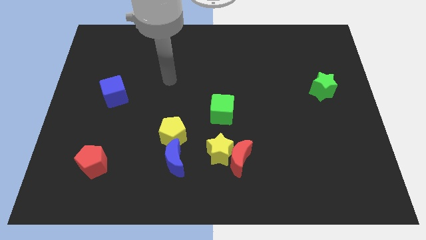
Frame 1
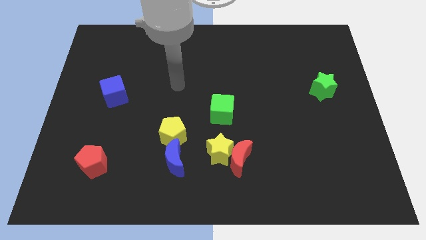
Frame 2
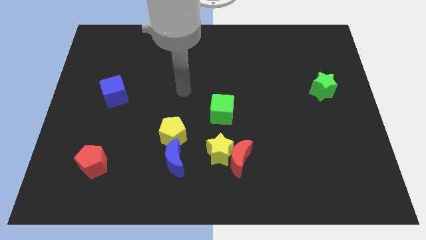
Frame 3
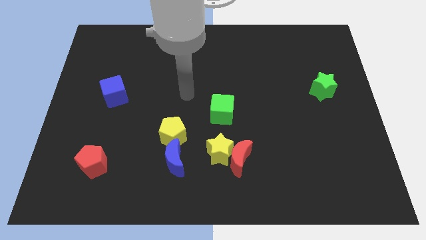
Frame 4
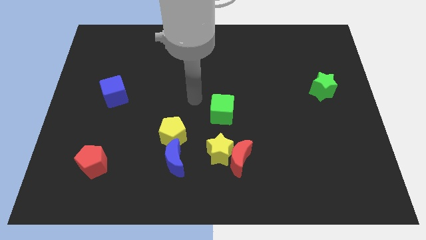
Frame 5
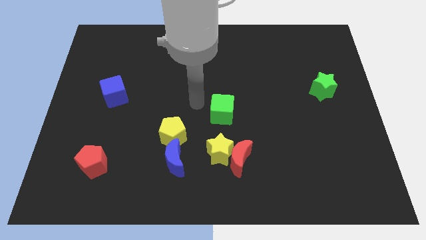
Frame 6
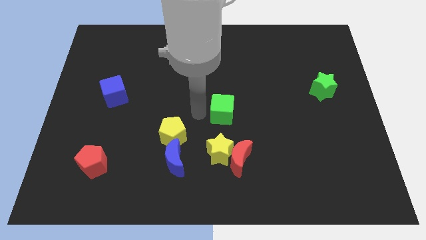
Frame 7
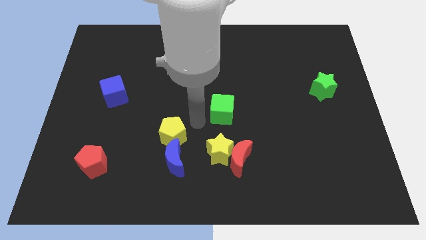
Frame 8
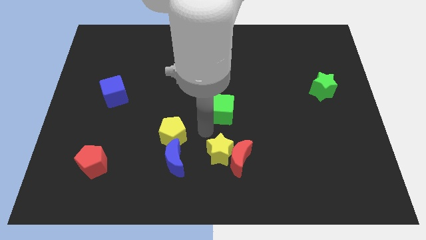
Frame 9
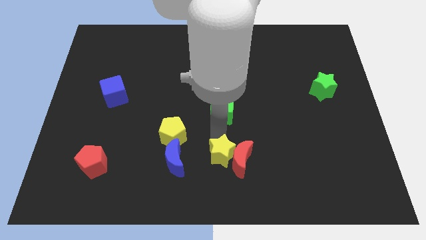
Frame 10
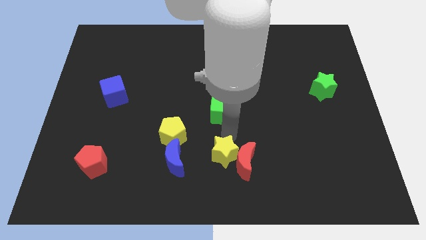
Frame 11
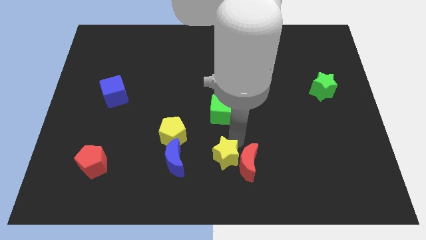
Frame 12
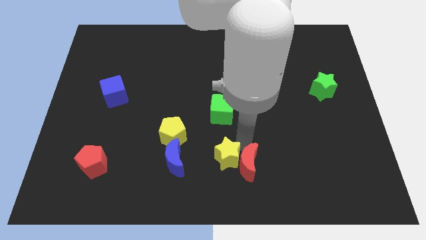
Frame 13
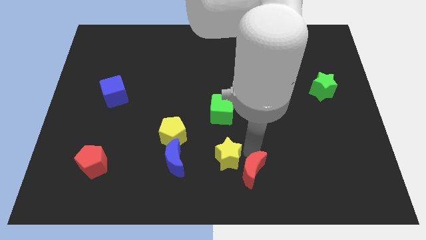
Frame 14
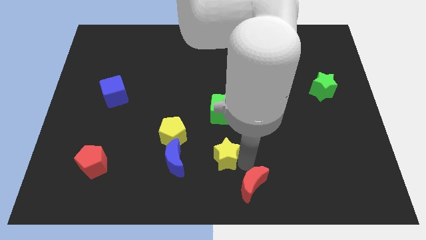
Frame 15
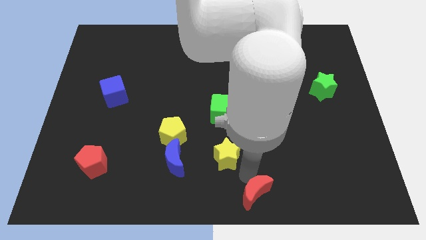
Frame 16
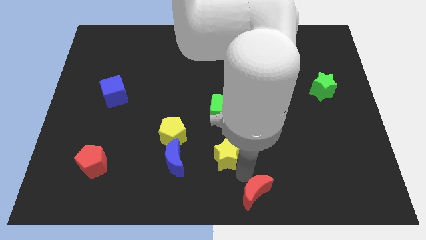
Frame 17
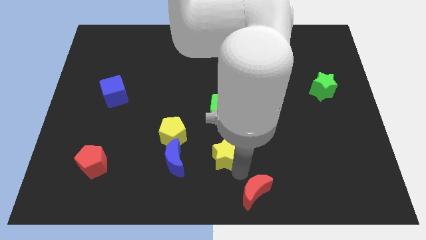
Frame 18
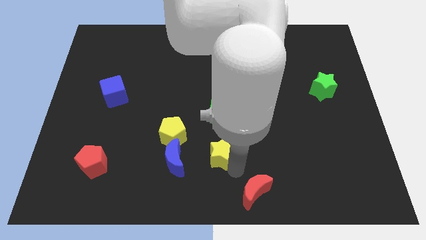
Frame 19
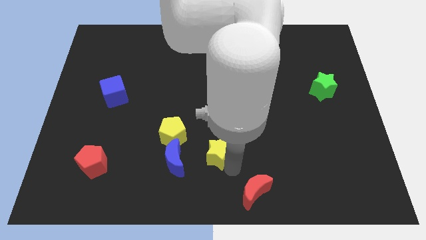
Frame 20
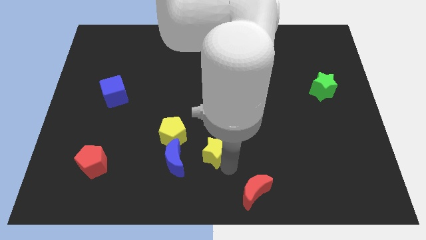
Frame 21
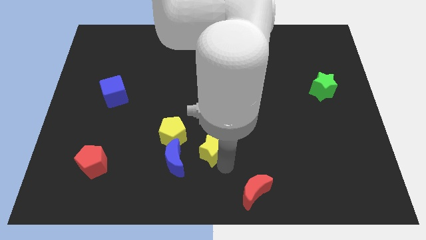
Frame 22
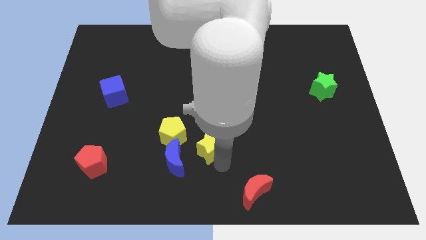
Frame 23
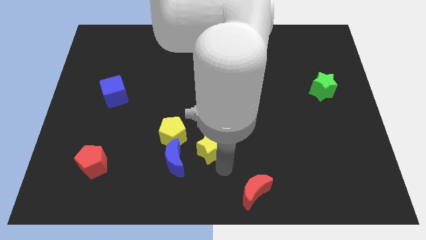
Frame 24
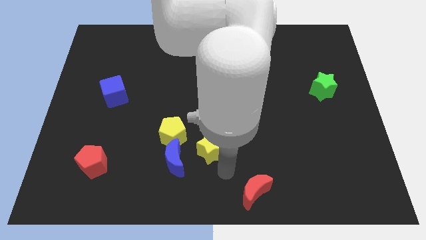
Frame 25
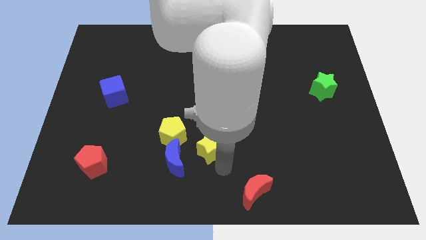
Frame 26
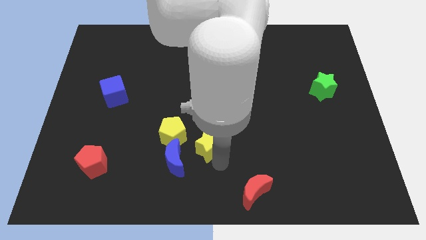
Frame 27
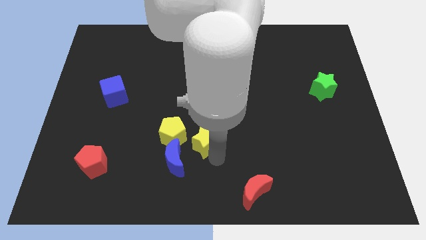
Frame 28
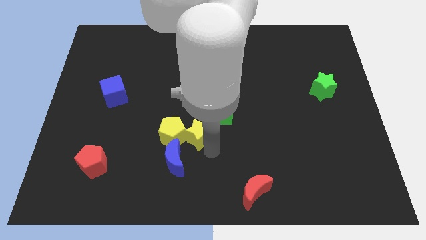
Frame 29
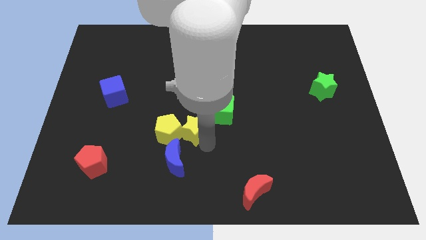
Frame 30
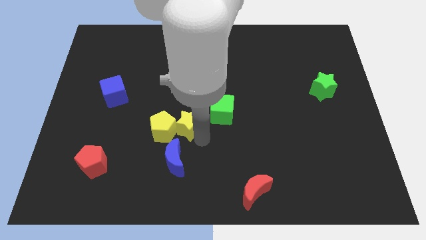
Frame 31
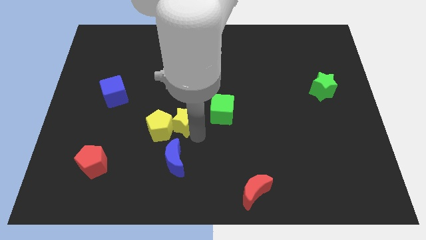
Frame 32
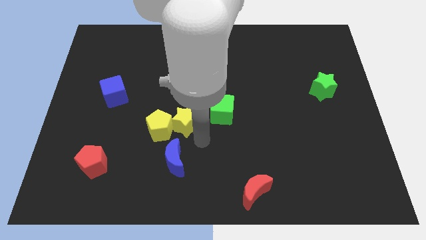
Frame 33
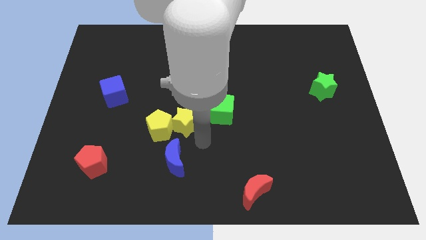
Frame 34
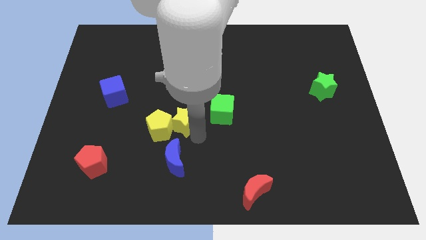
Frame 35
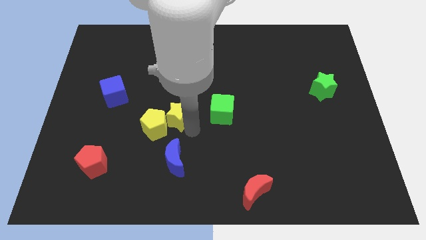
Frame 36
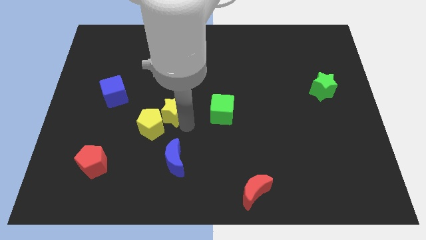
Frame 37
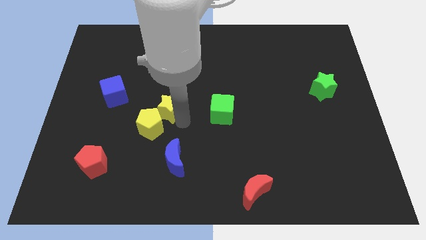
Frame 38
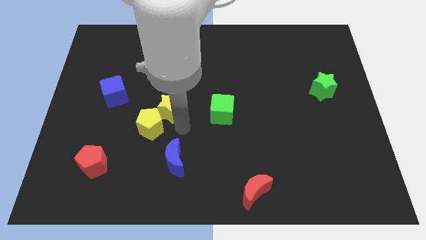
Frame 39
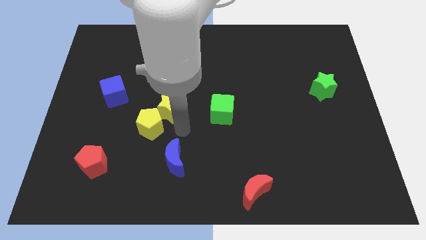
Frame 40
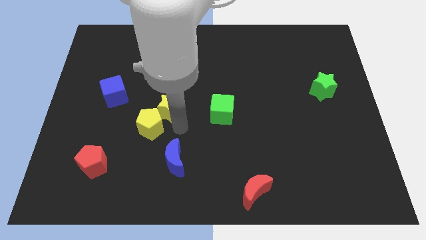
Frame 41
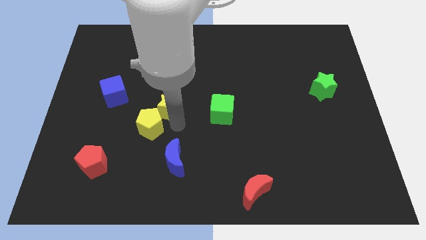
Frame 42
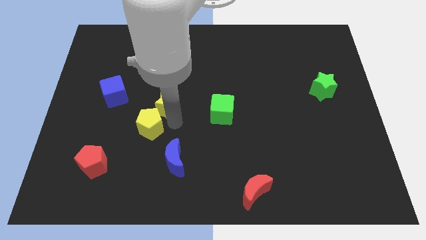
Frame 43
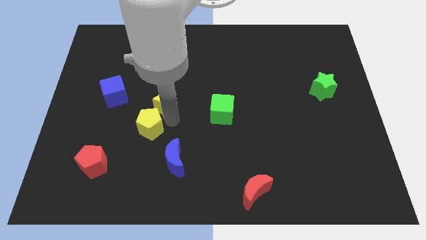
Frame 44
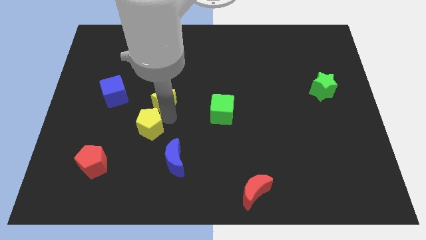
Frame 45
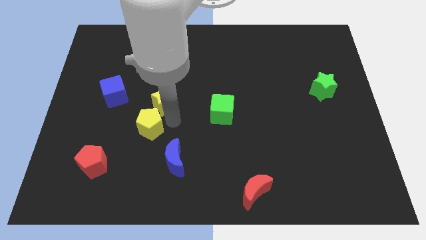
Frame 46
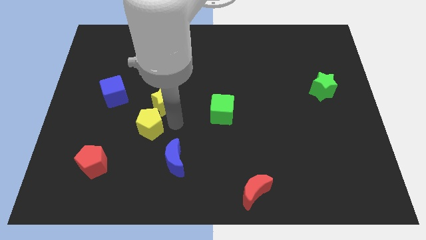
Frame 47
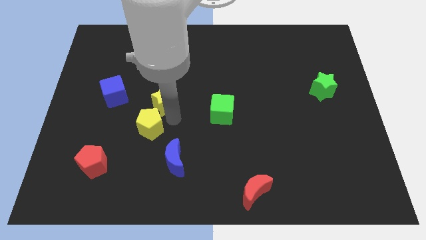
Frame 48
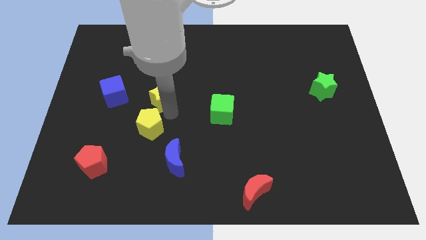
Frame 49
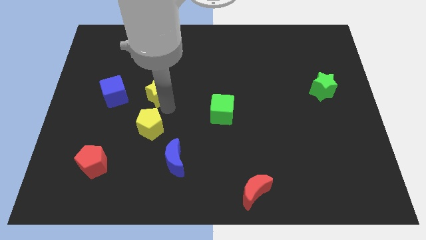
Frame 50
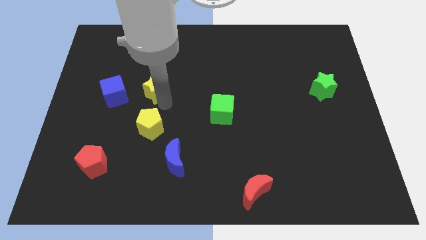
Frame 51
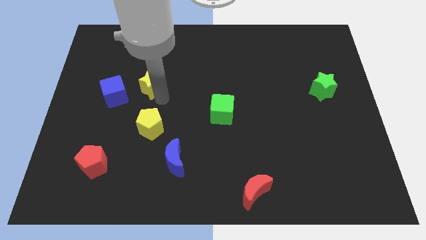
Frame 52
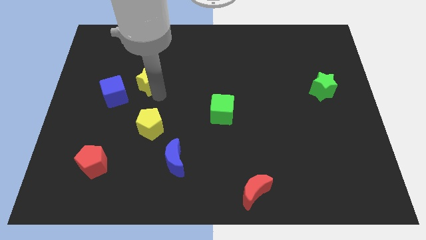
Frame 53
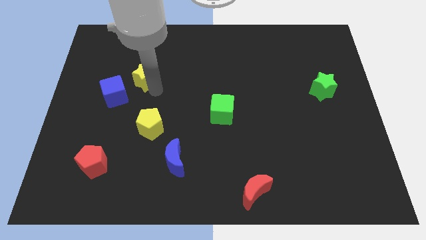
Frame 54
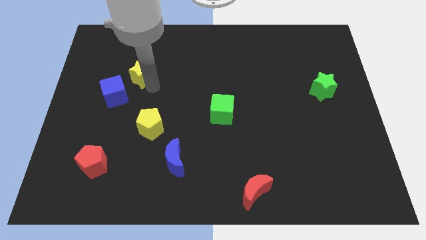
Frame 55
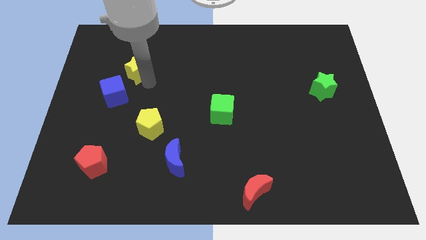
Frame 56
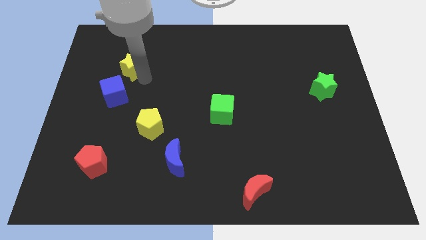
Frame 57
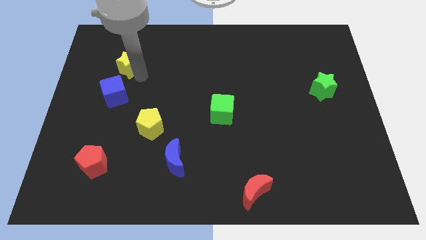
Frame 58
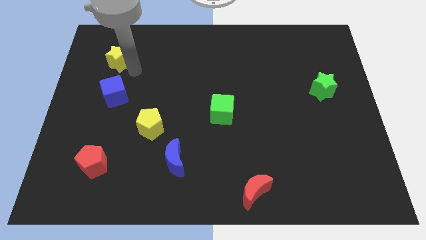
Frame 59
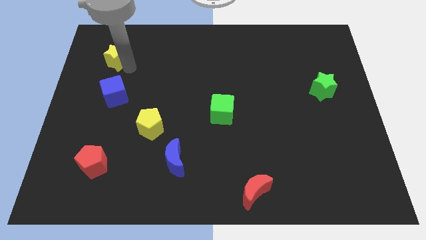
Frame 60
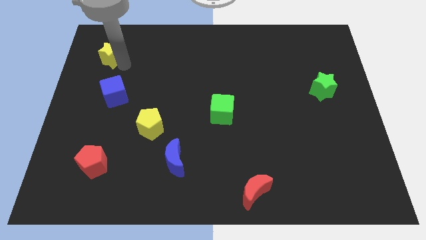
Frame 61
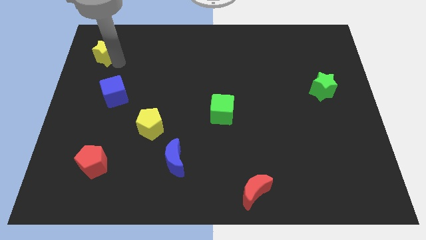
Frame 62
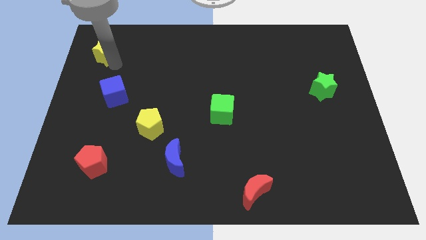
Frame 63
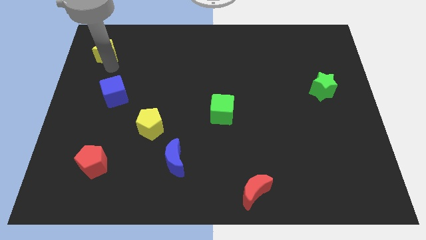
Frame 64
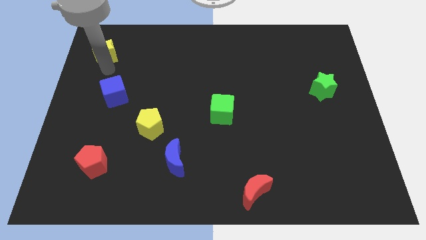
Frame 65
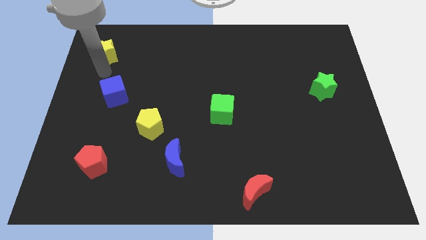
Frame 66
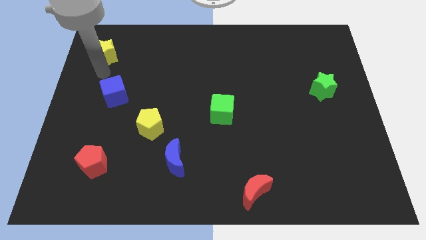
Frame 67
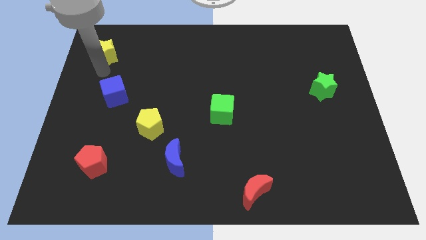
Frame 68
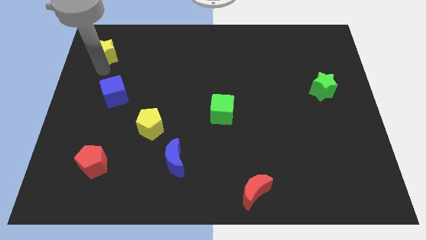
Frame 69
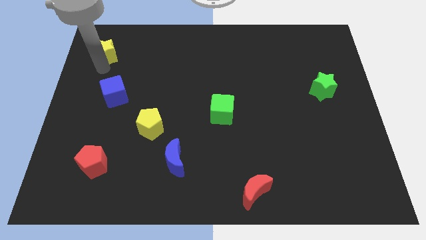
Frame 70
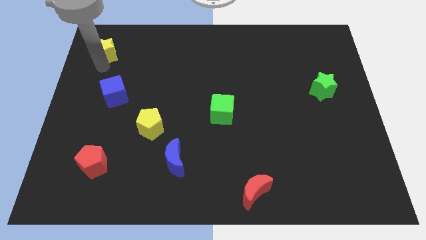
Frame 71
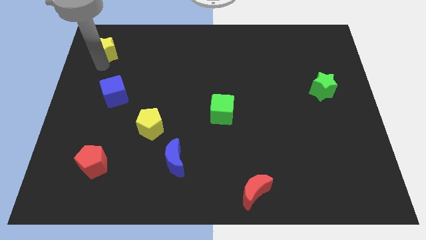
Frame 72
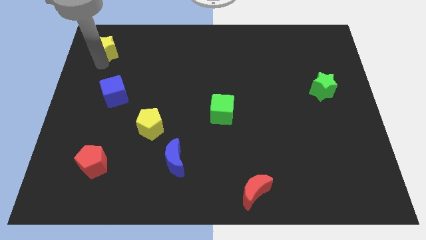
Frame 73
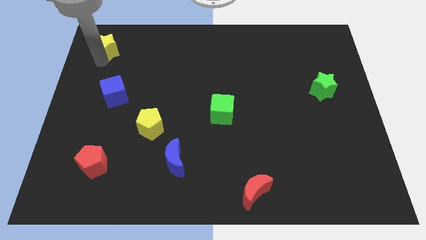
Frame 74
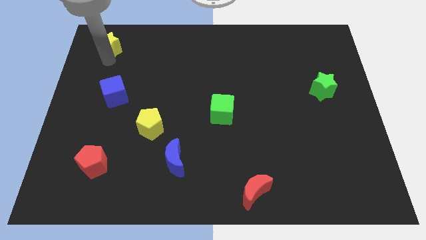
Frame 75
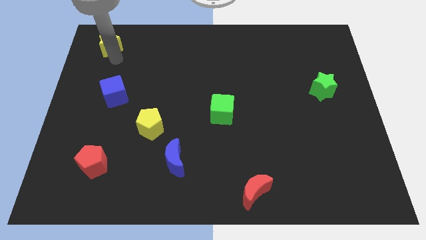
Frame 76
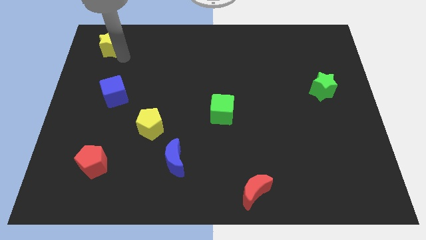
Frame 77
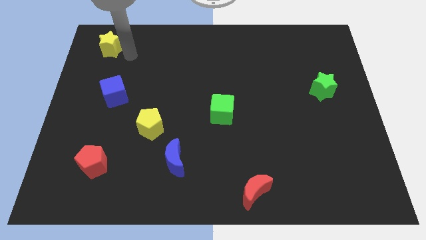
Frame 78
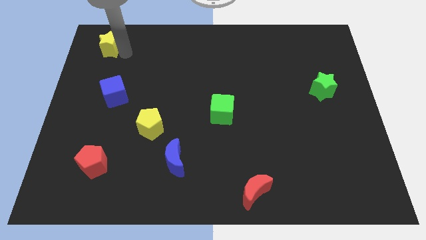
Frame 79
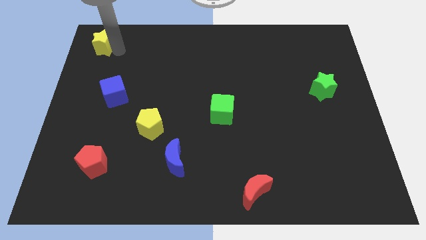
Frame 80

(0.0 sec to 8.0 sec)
put the yellow star to the top left of the board
